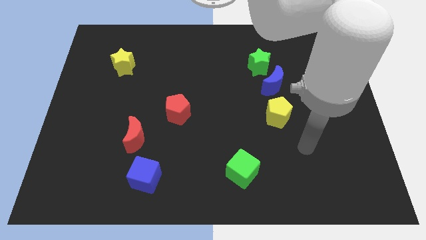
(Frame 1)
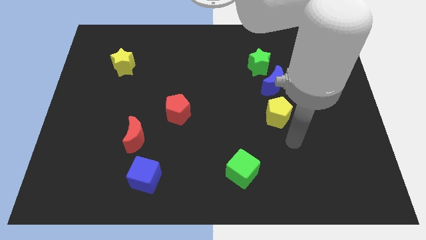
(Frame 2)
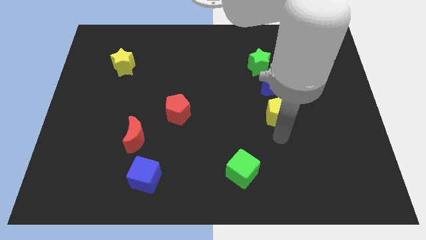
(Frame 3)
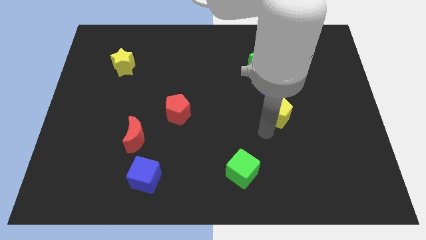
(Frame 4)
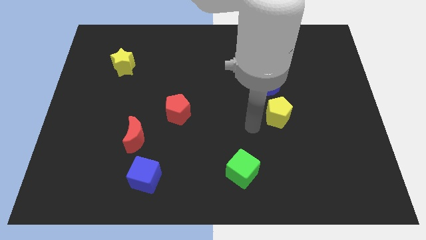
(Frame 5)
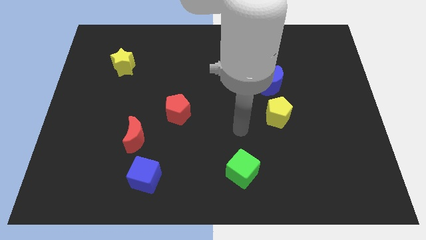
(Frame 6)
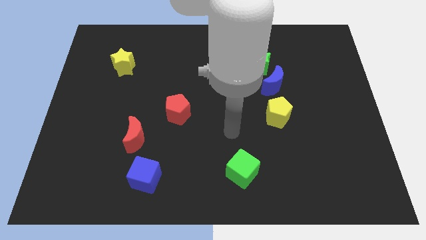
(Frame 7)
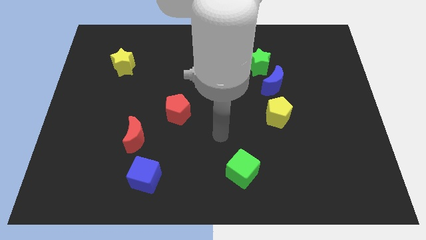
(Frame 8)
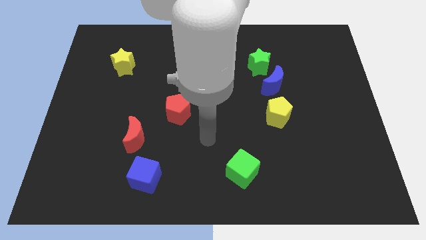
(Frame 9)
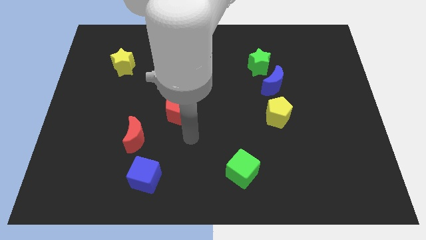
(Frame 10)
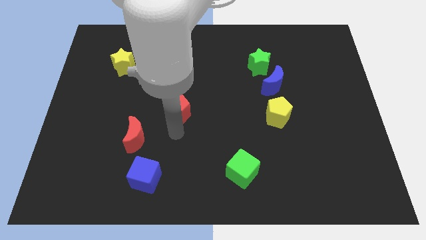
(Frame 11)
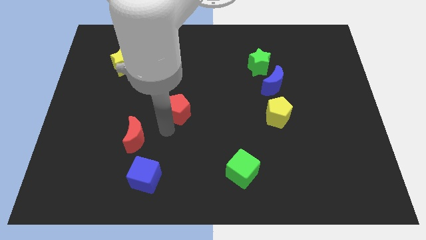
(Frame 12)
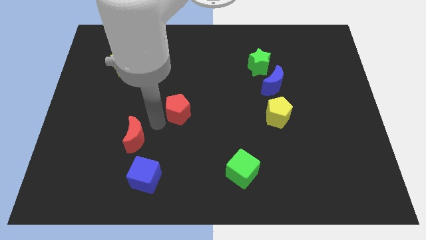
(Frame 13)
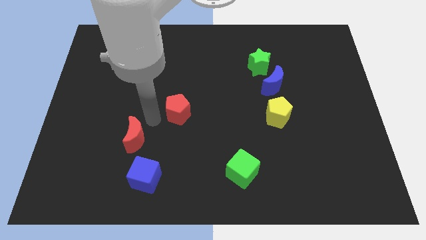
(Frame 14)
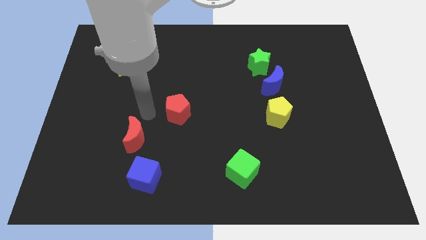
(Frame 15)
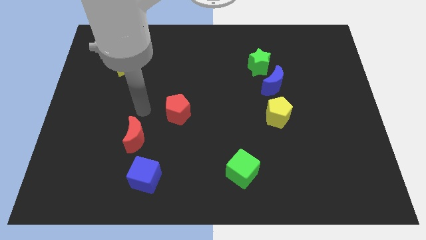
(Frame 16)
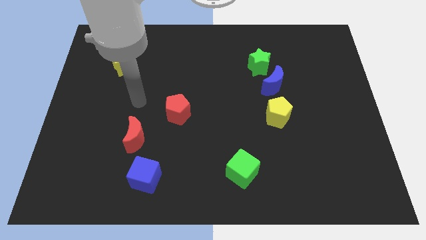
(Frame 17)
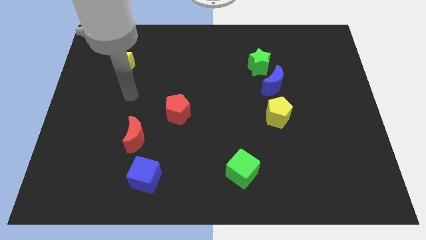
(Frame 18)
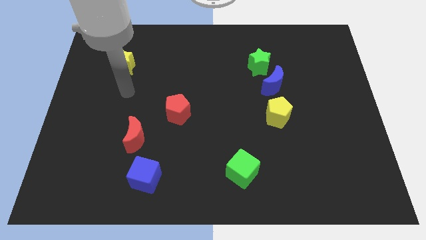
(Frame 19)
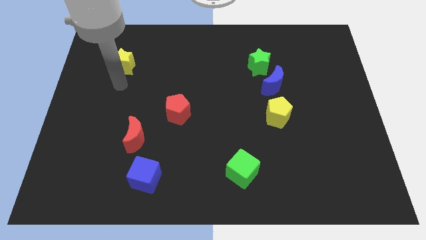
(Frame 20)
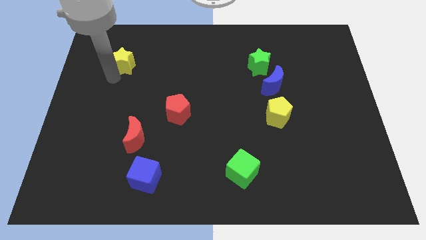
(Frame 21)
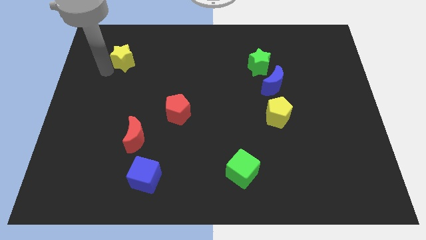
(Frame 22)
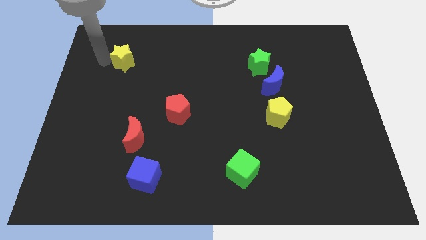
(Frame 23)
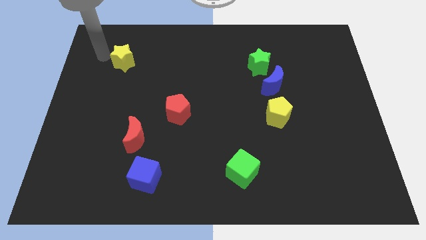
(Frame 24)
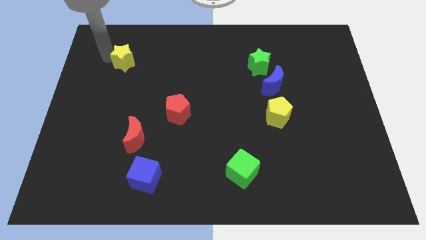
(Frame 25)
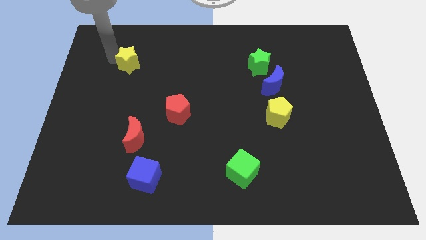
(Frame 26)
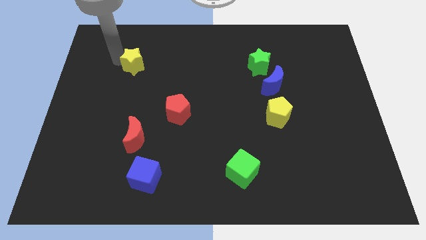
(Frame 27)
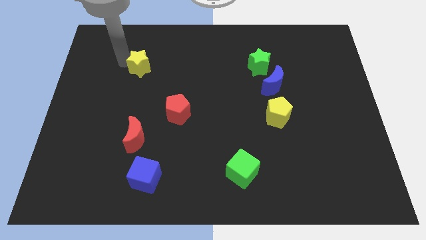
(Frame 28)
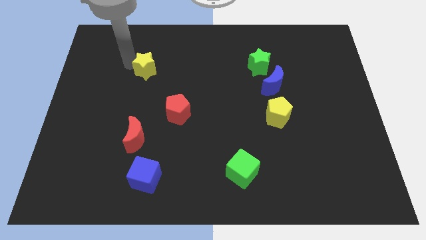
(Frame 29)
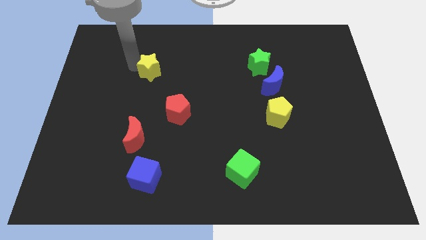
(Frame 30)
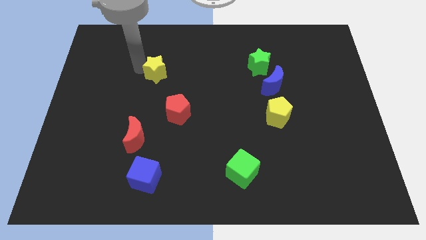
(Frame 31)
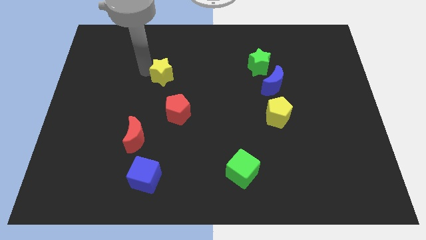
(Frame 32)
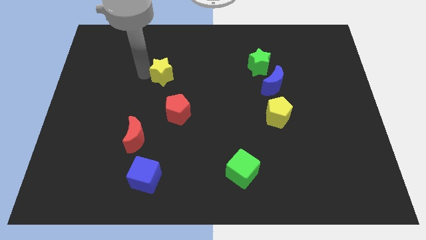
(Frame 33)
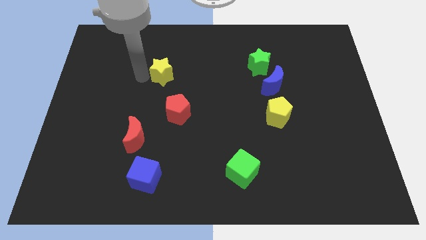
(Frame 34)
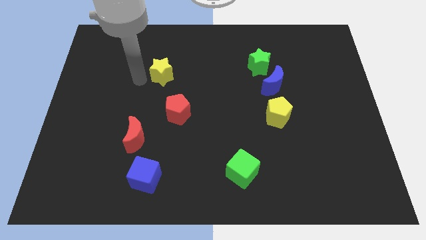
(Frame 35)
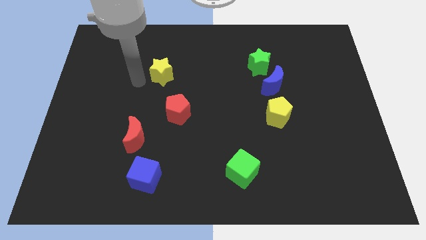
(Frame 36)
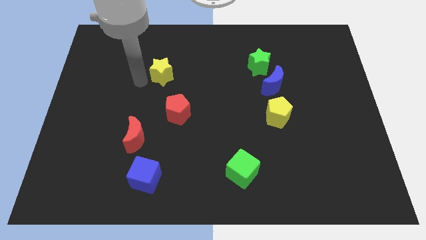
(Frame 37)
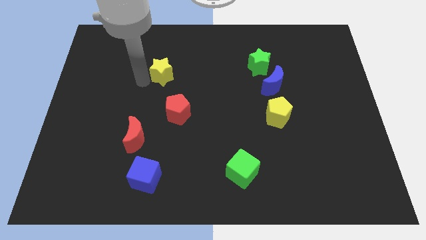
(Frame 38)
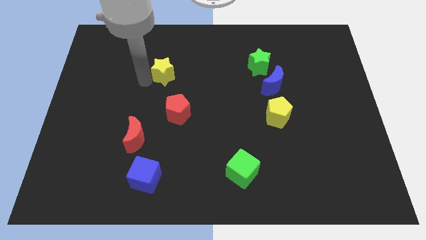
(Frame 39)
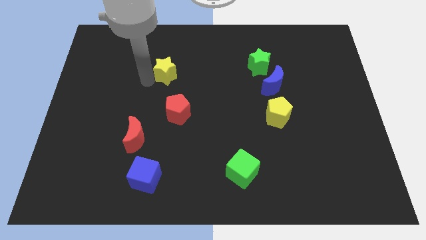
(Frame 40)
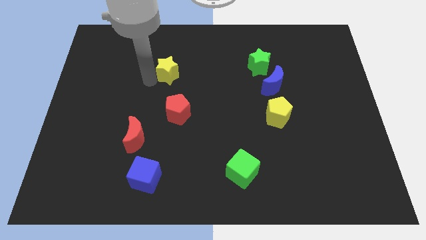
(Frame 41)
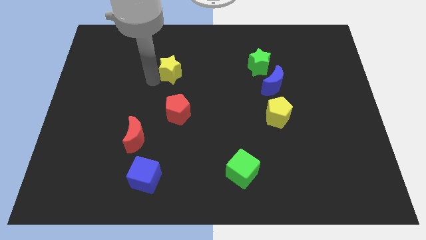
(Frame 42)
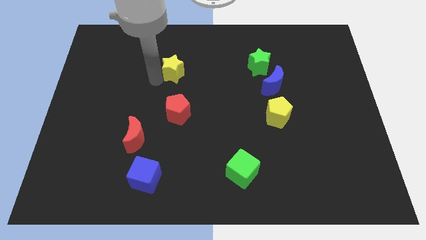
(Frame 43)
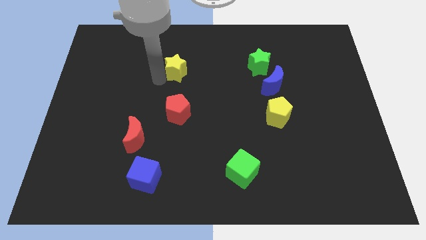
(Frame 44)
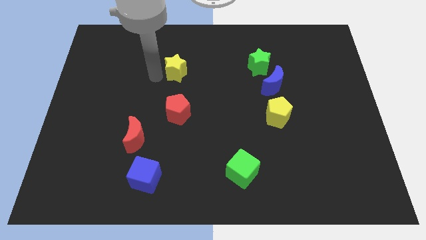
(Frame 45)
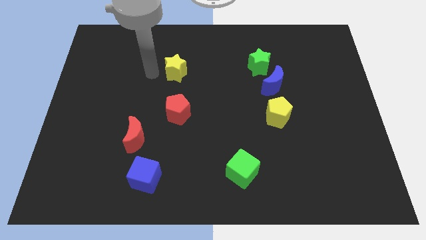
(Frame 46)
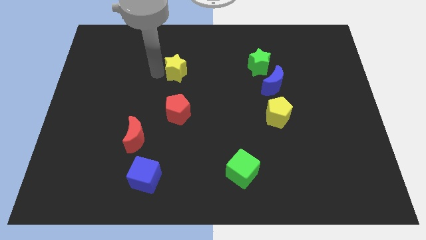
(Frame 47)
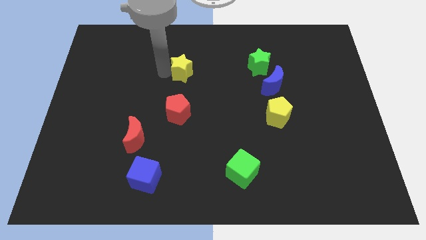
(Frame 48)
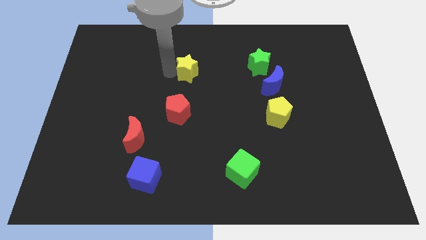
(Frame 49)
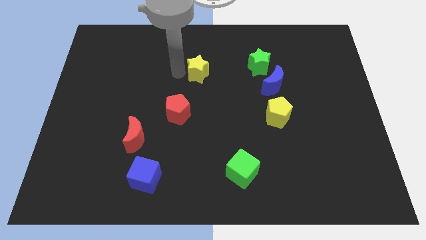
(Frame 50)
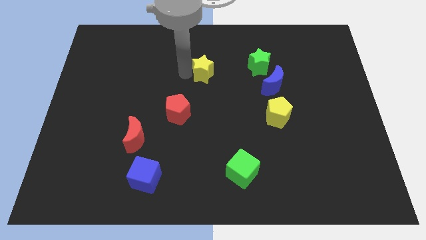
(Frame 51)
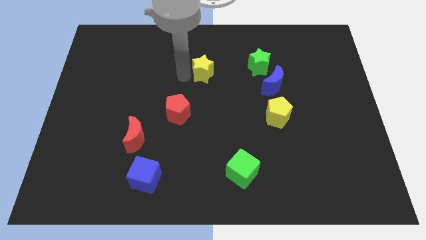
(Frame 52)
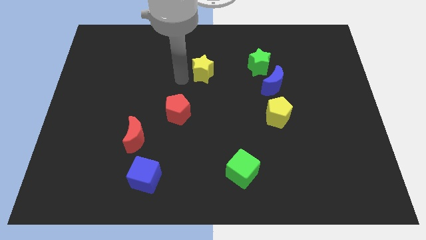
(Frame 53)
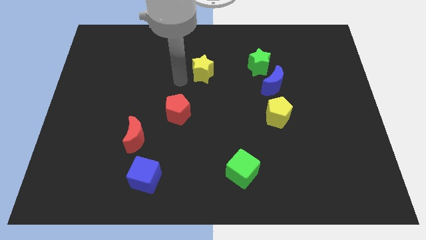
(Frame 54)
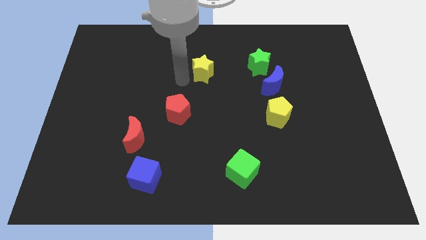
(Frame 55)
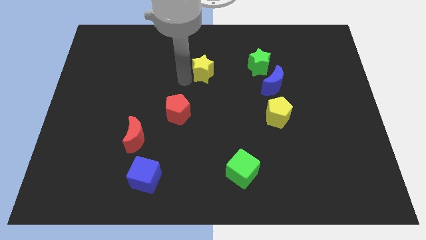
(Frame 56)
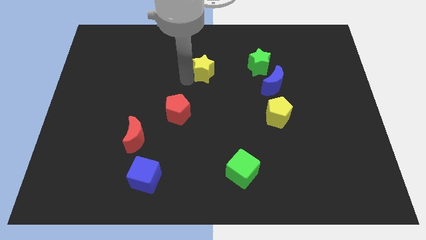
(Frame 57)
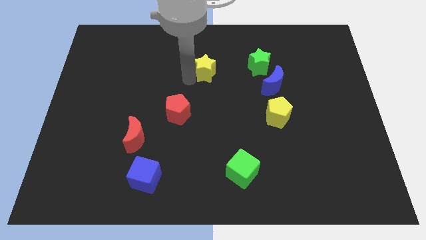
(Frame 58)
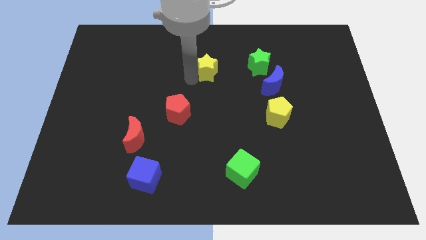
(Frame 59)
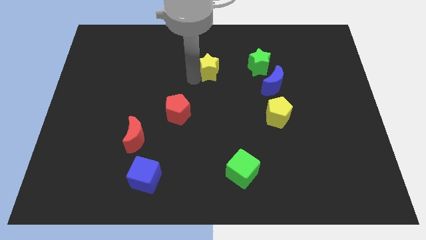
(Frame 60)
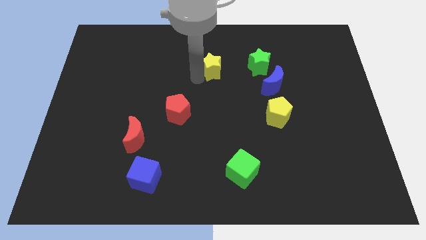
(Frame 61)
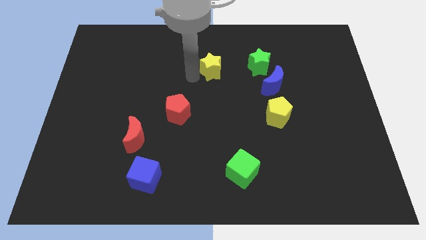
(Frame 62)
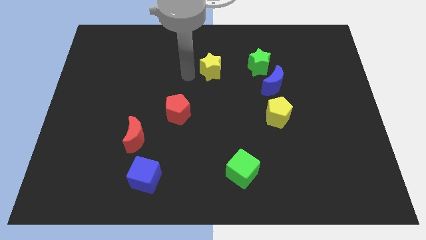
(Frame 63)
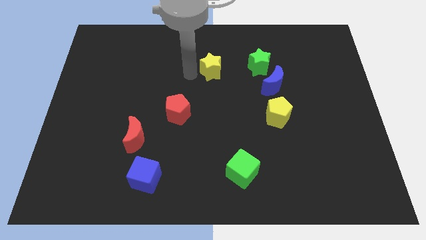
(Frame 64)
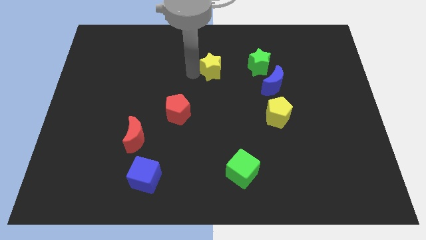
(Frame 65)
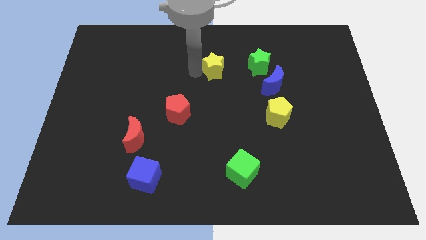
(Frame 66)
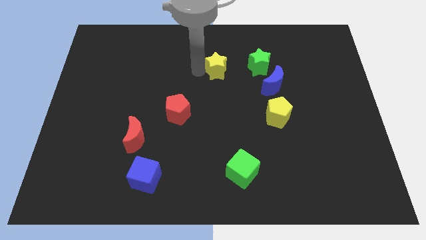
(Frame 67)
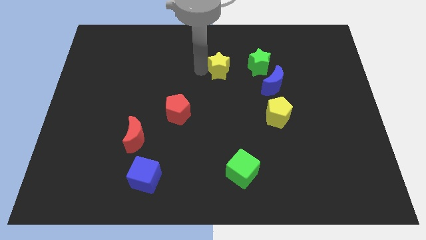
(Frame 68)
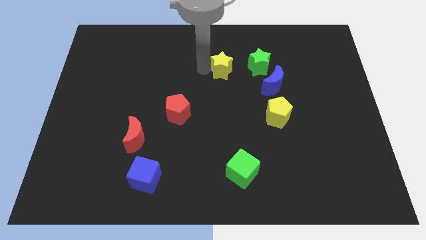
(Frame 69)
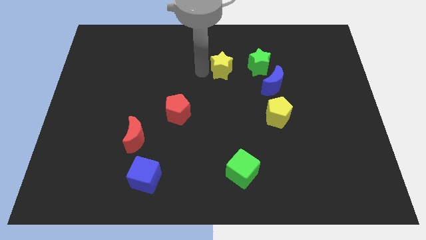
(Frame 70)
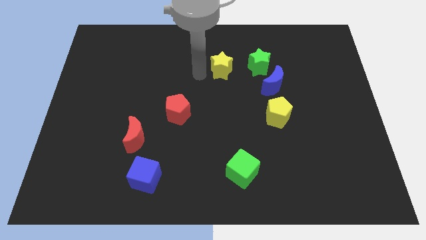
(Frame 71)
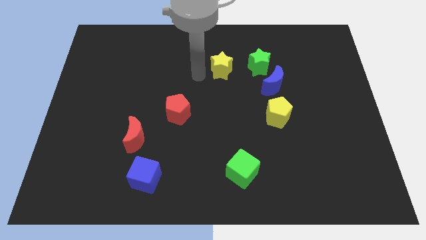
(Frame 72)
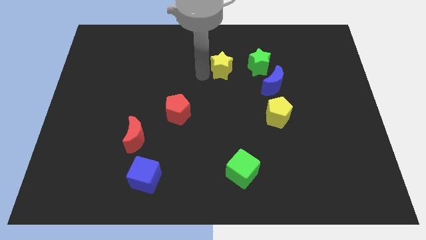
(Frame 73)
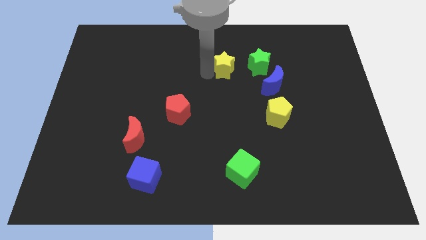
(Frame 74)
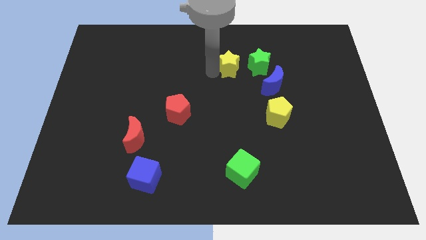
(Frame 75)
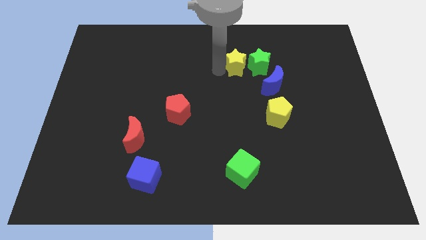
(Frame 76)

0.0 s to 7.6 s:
put the yellow star close to the green star
